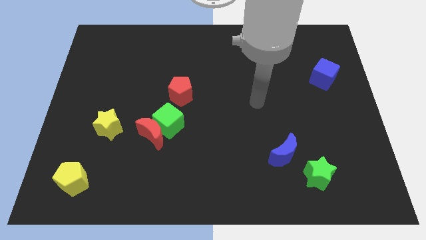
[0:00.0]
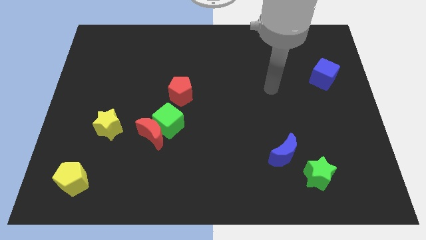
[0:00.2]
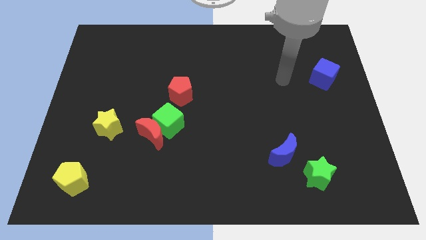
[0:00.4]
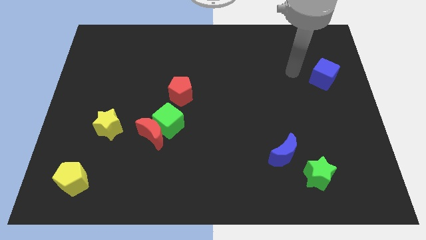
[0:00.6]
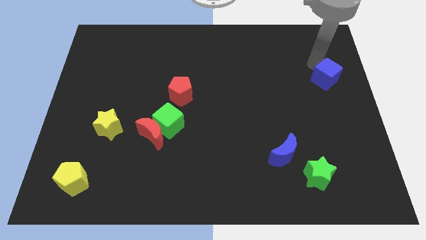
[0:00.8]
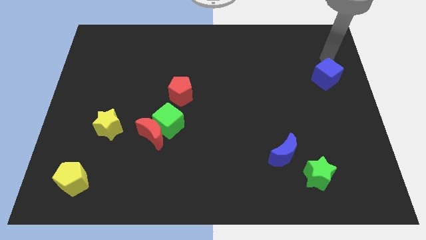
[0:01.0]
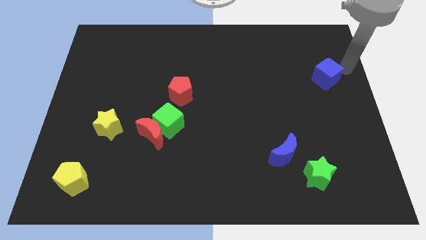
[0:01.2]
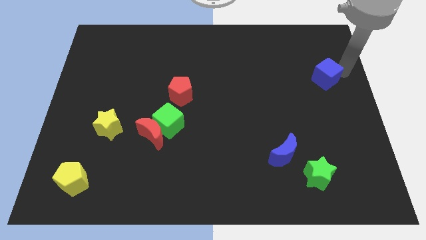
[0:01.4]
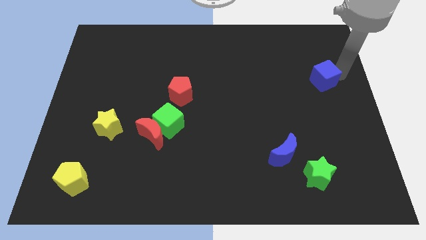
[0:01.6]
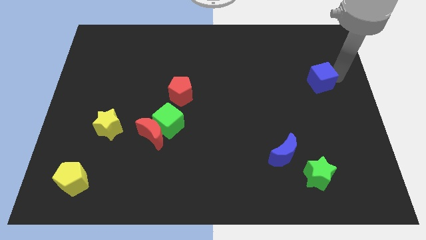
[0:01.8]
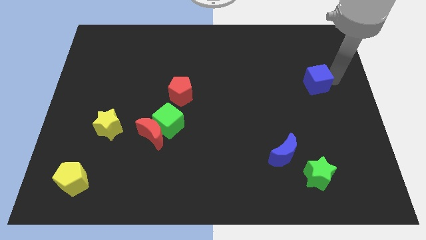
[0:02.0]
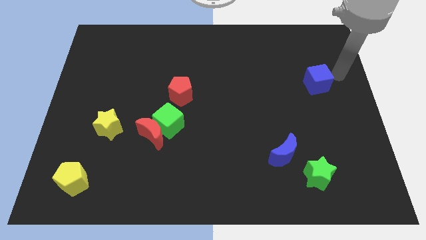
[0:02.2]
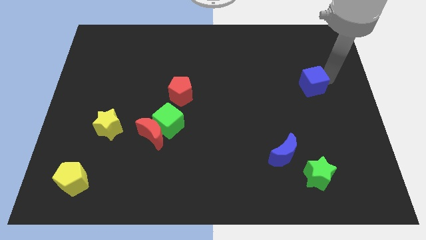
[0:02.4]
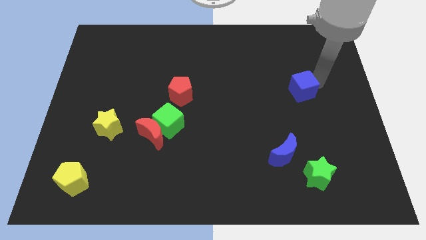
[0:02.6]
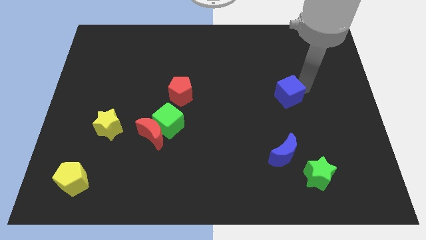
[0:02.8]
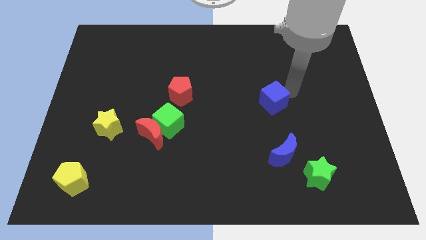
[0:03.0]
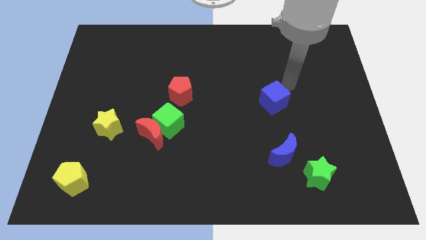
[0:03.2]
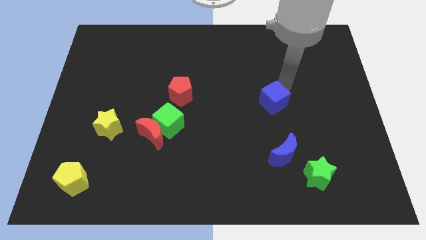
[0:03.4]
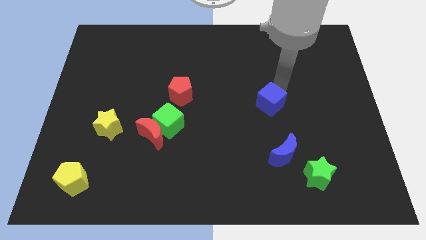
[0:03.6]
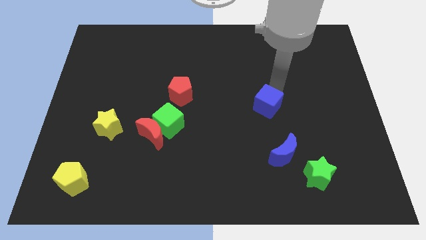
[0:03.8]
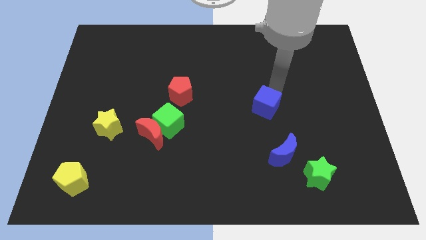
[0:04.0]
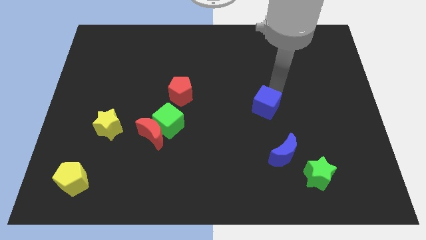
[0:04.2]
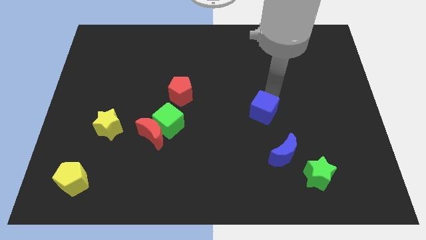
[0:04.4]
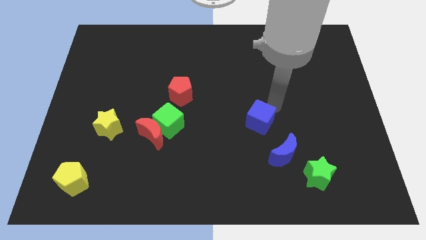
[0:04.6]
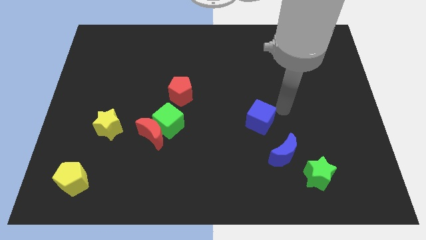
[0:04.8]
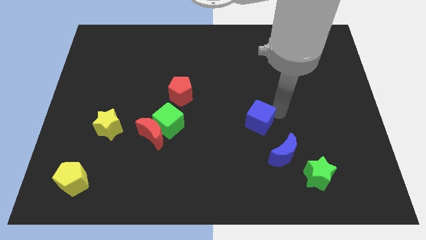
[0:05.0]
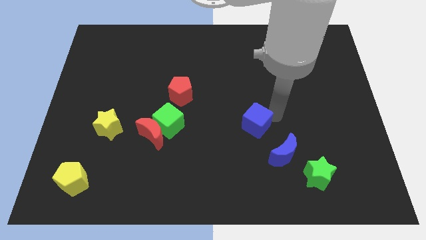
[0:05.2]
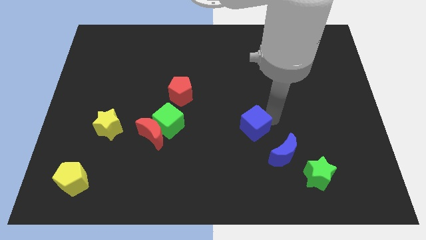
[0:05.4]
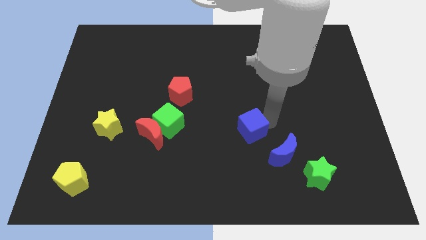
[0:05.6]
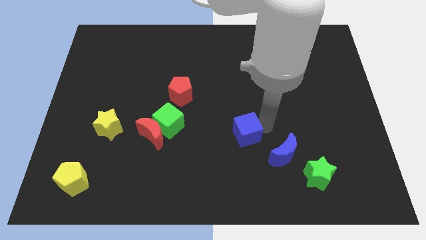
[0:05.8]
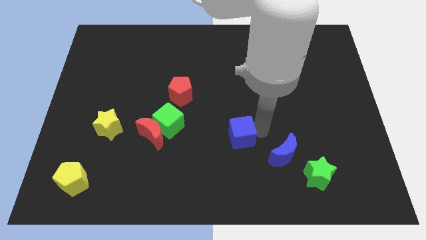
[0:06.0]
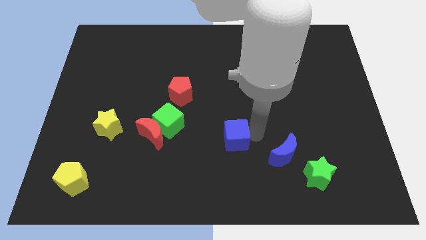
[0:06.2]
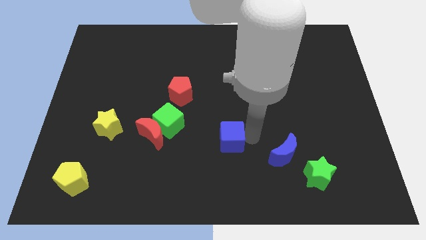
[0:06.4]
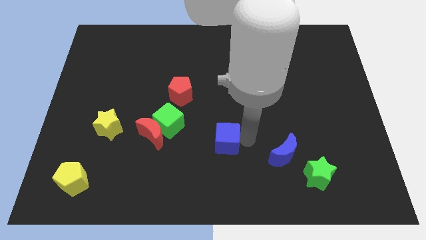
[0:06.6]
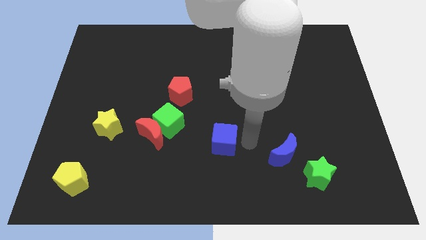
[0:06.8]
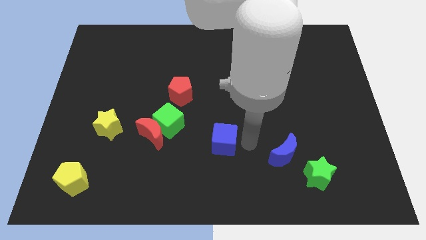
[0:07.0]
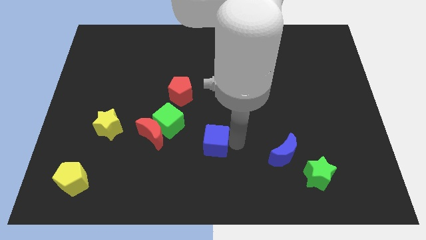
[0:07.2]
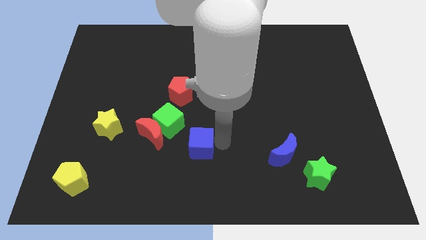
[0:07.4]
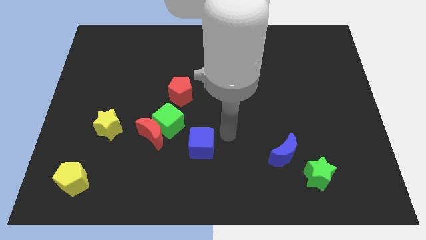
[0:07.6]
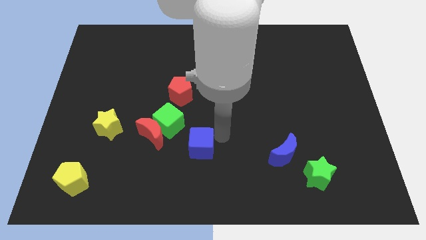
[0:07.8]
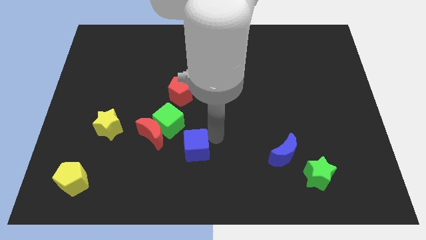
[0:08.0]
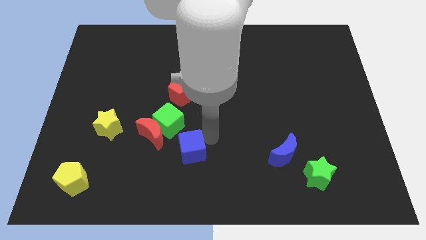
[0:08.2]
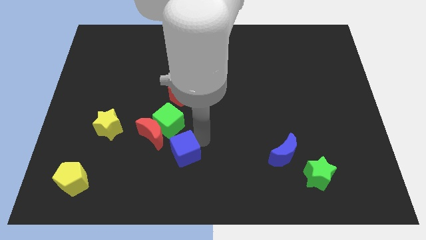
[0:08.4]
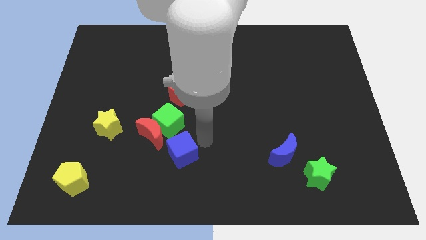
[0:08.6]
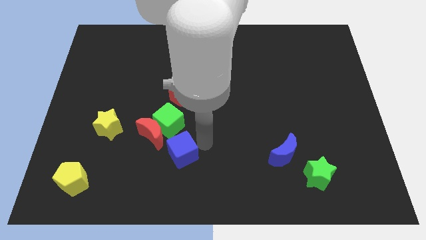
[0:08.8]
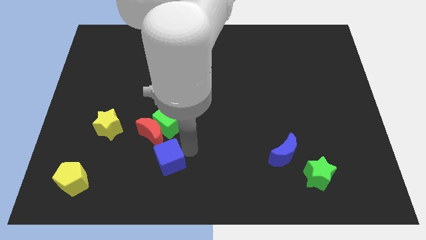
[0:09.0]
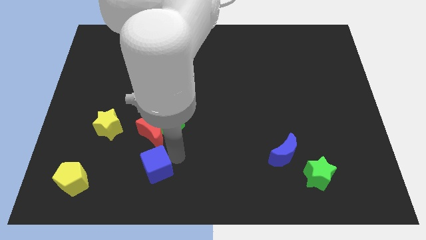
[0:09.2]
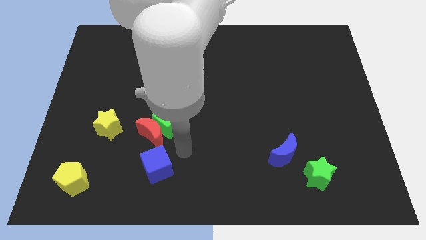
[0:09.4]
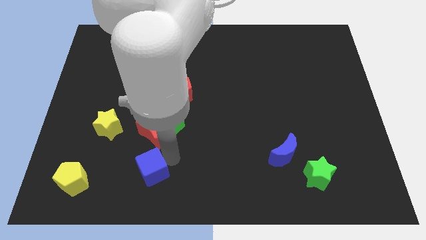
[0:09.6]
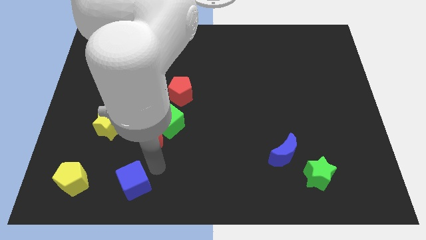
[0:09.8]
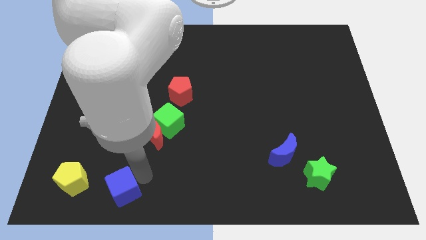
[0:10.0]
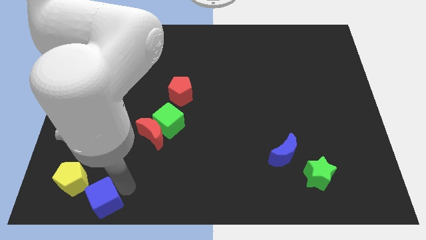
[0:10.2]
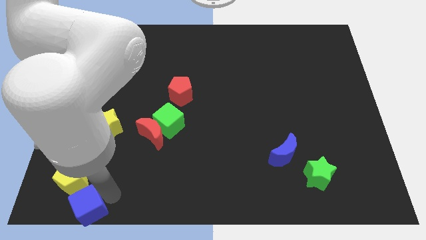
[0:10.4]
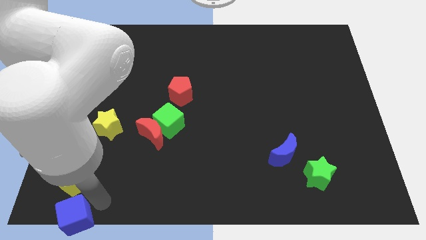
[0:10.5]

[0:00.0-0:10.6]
push the blue cube to the bottom left corner
